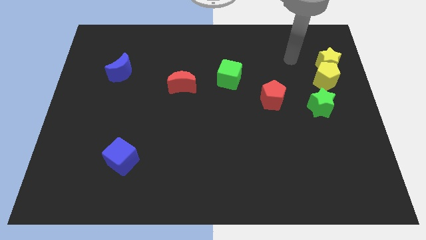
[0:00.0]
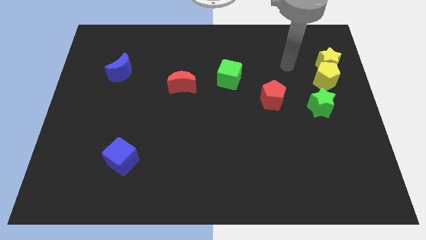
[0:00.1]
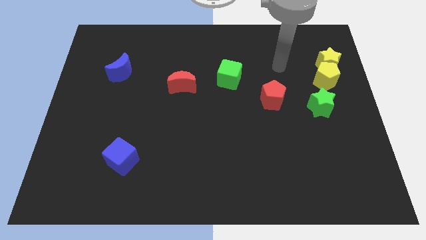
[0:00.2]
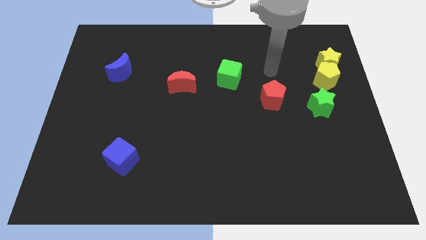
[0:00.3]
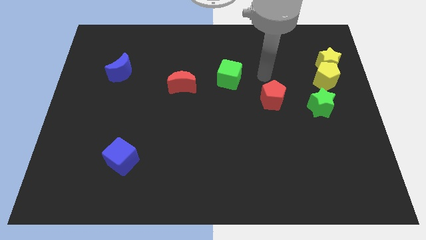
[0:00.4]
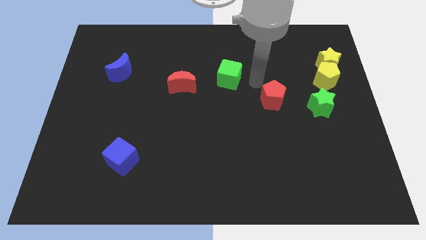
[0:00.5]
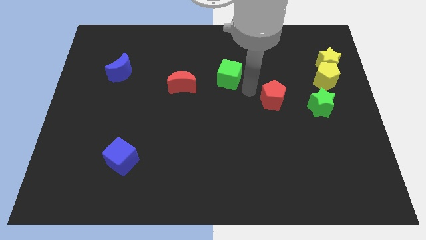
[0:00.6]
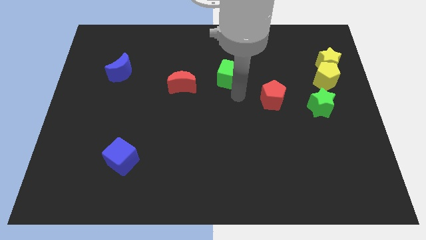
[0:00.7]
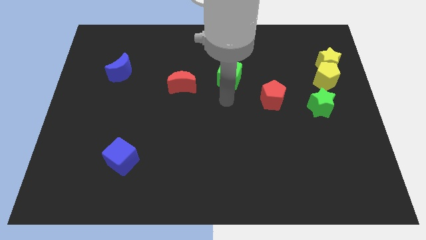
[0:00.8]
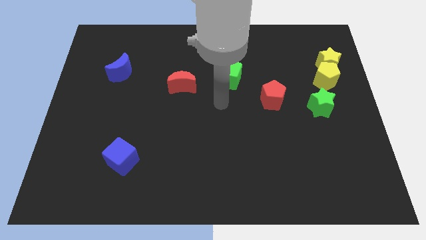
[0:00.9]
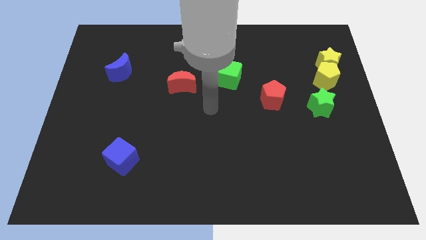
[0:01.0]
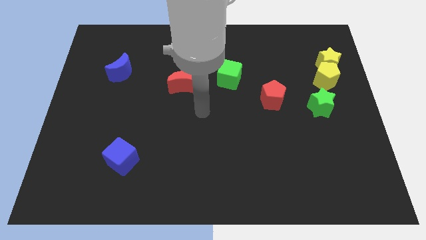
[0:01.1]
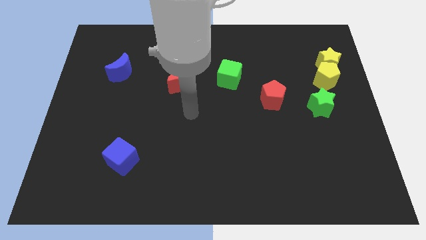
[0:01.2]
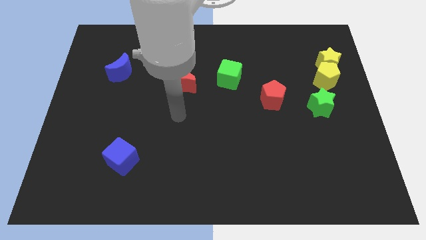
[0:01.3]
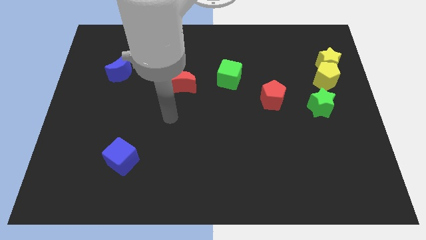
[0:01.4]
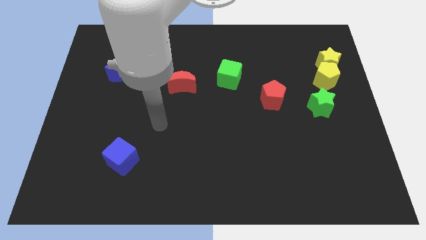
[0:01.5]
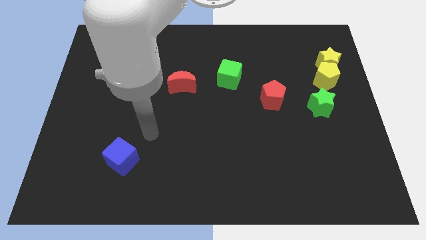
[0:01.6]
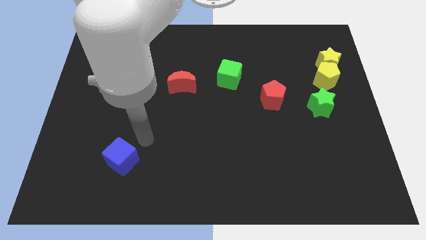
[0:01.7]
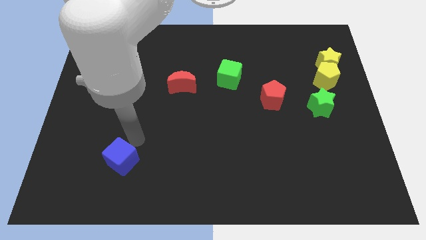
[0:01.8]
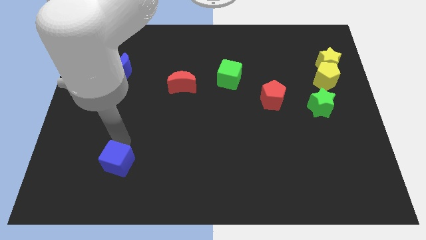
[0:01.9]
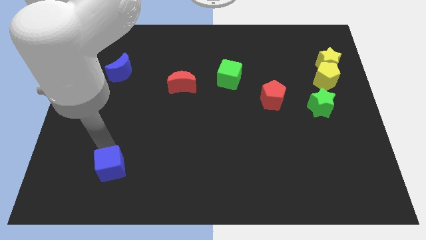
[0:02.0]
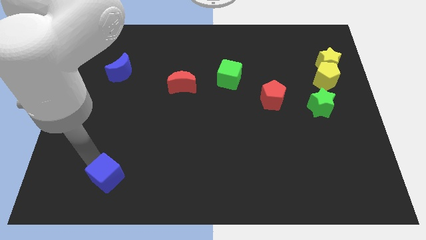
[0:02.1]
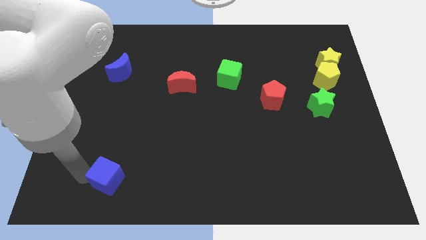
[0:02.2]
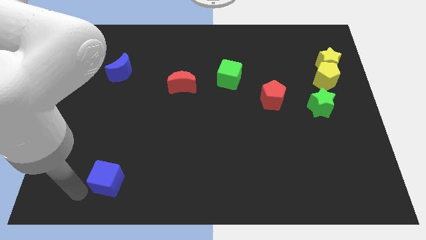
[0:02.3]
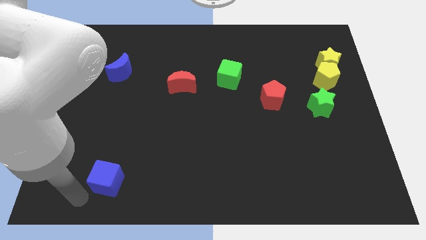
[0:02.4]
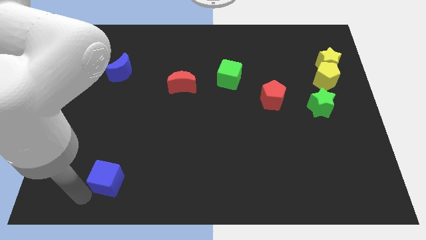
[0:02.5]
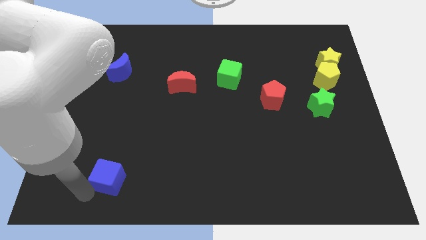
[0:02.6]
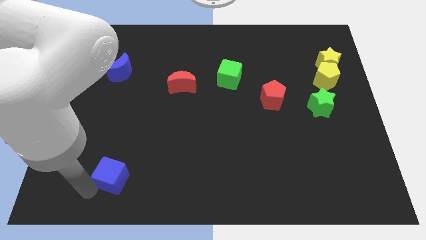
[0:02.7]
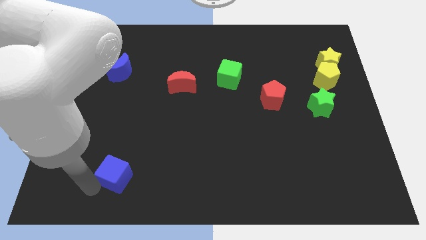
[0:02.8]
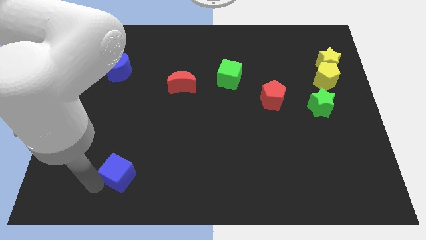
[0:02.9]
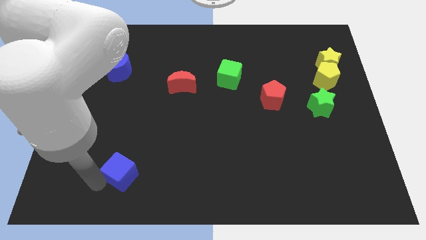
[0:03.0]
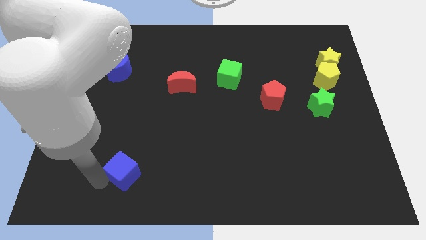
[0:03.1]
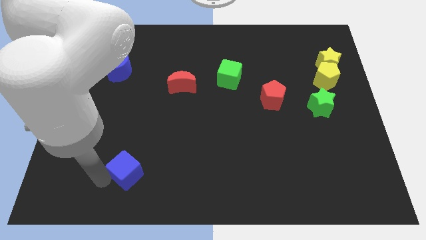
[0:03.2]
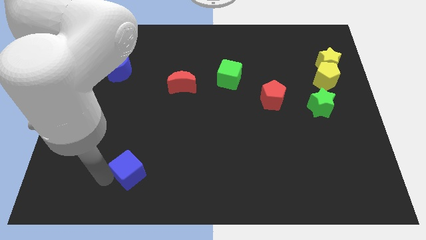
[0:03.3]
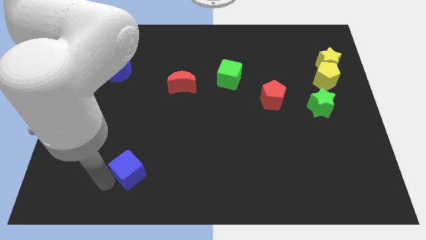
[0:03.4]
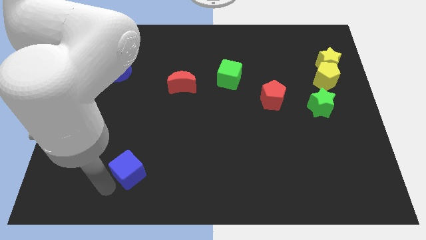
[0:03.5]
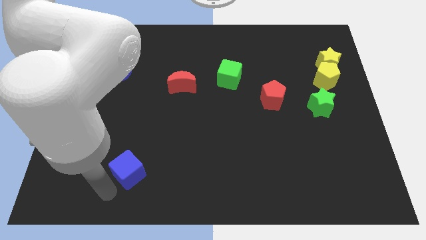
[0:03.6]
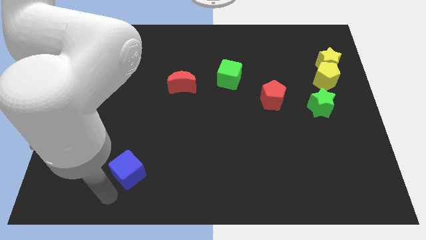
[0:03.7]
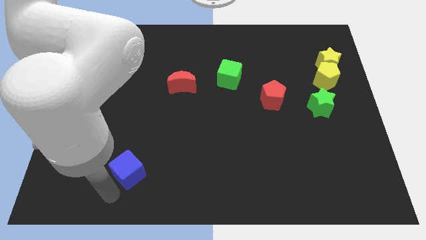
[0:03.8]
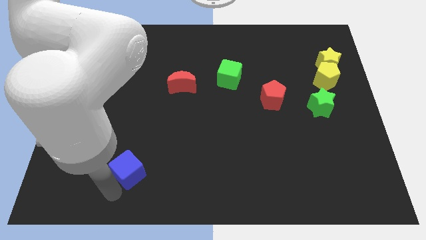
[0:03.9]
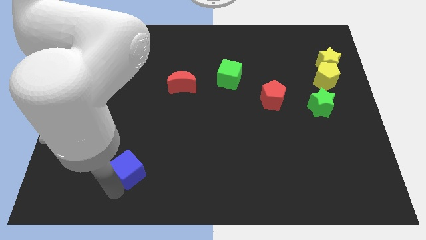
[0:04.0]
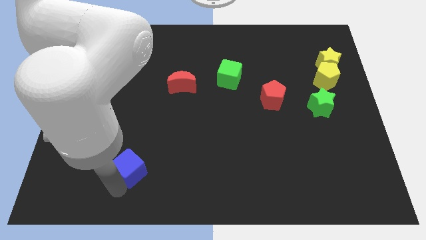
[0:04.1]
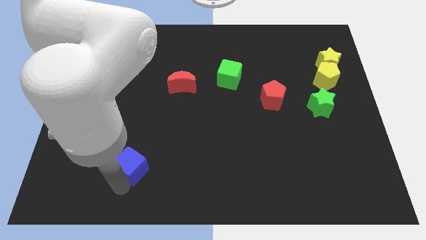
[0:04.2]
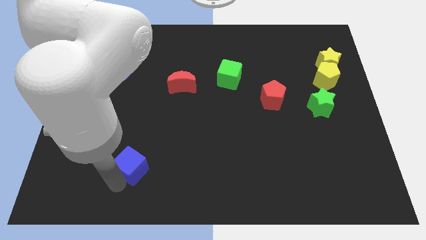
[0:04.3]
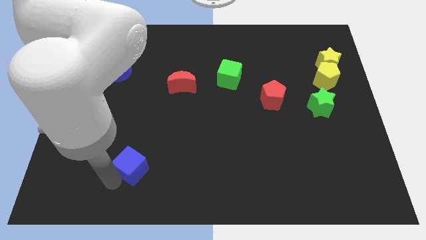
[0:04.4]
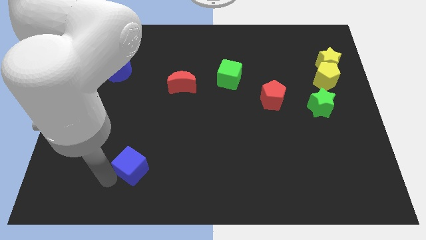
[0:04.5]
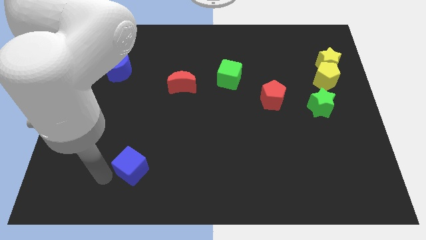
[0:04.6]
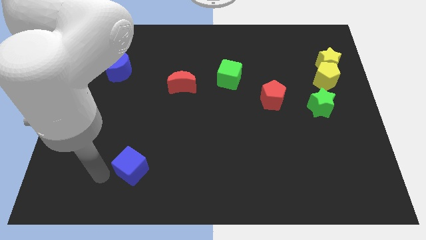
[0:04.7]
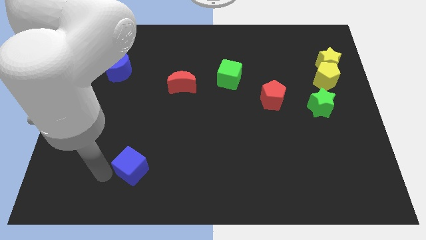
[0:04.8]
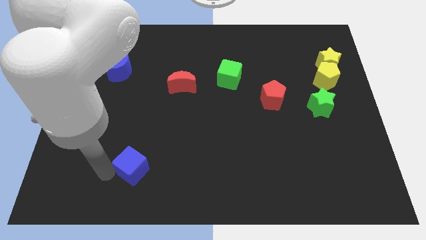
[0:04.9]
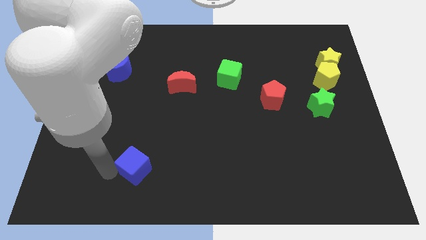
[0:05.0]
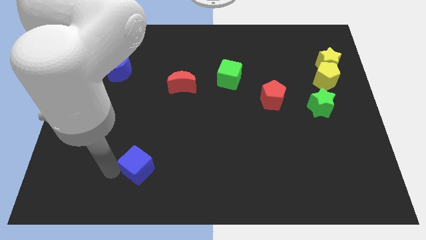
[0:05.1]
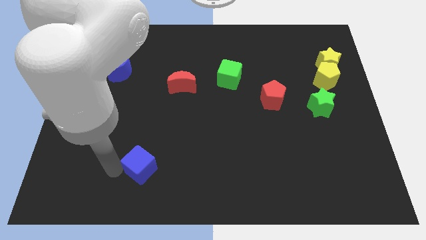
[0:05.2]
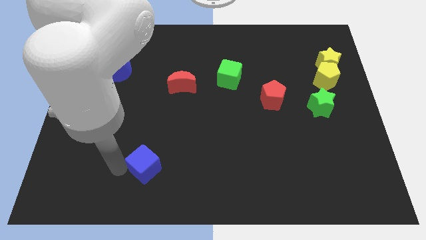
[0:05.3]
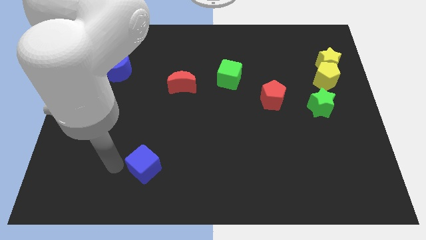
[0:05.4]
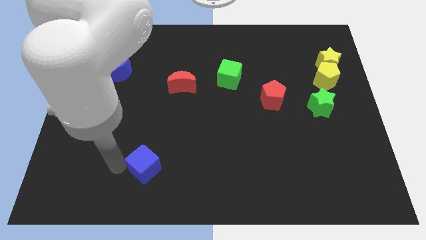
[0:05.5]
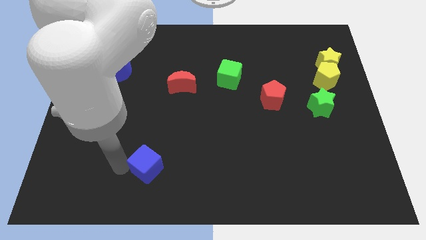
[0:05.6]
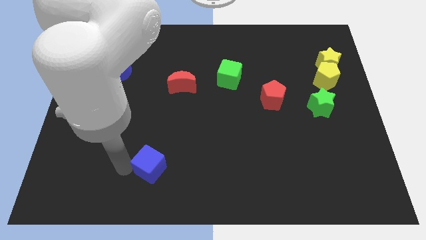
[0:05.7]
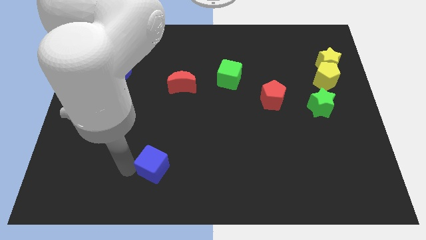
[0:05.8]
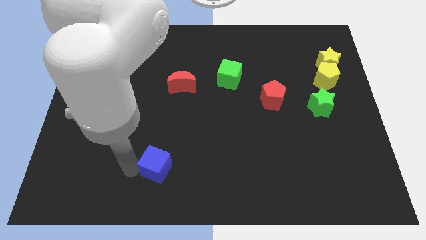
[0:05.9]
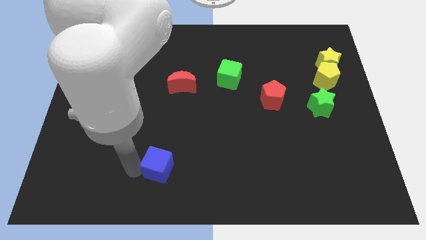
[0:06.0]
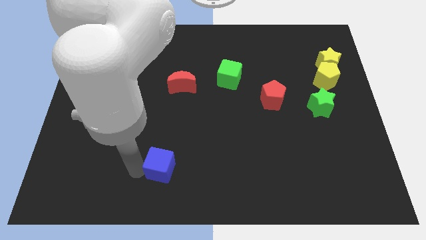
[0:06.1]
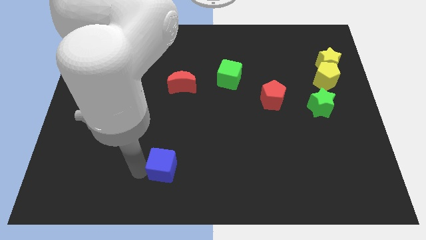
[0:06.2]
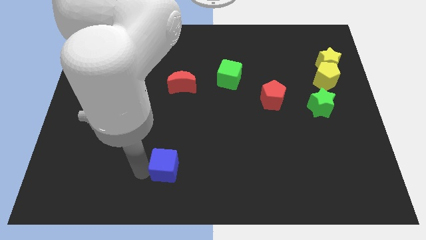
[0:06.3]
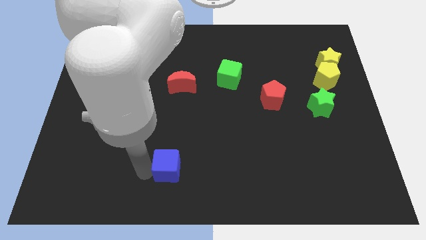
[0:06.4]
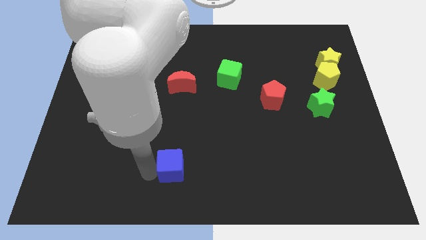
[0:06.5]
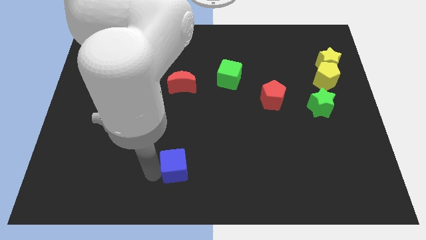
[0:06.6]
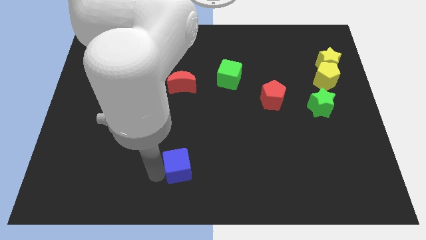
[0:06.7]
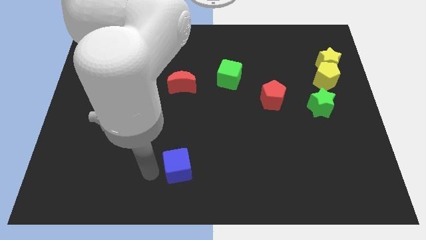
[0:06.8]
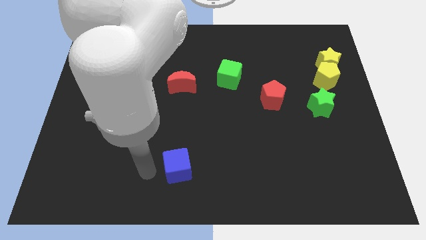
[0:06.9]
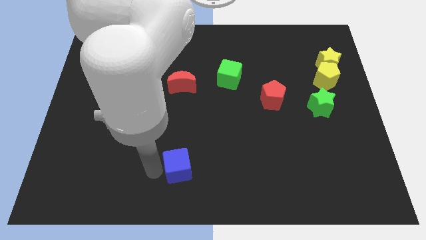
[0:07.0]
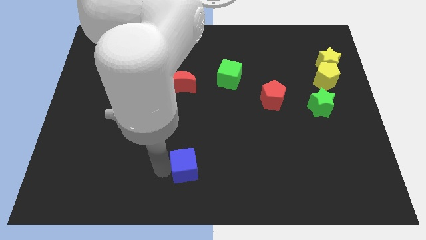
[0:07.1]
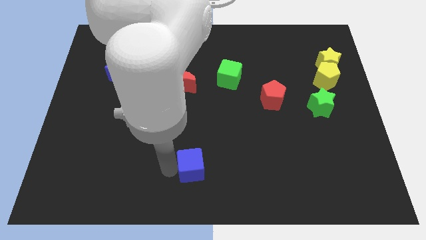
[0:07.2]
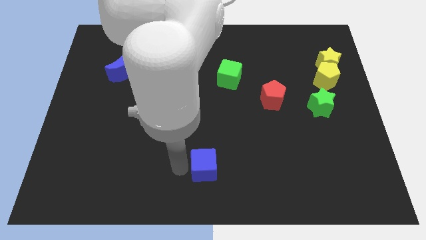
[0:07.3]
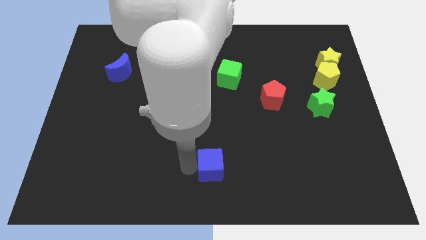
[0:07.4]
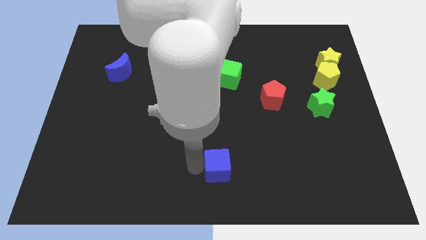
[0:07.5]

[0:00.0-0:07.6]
move the blue cube right

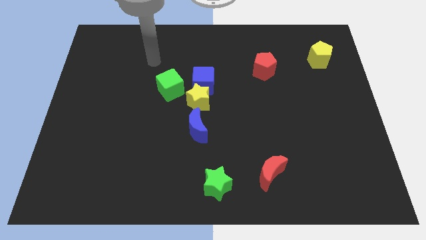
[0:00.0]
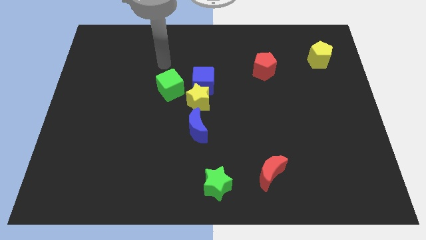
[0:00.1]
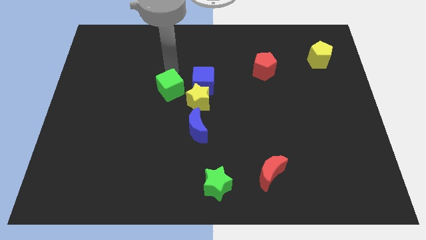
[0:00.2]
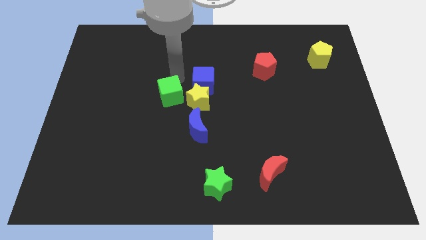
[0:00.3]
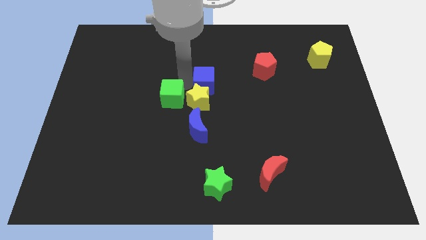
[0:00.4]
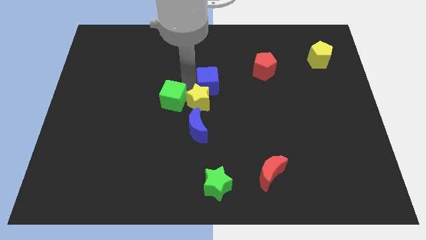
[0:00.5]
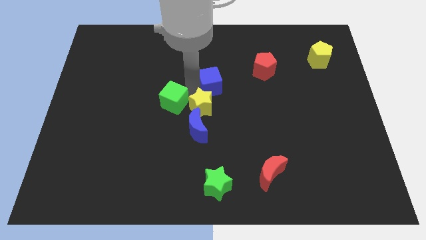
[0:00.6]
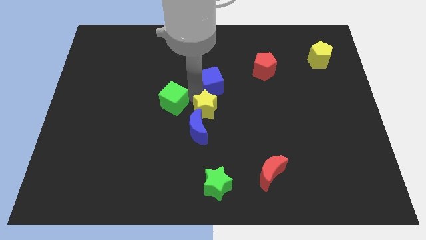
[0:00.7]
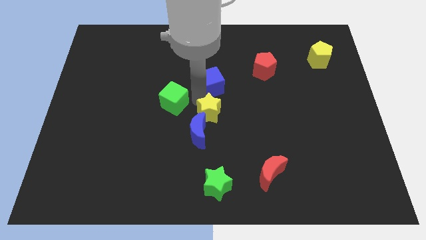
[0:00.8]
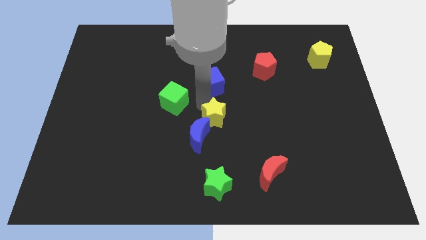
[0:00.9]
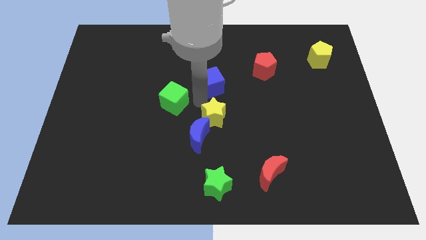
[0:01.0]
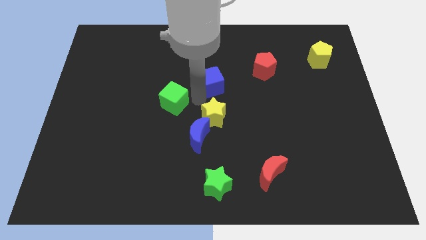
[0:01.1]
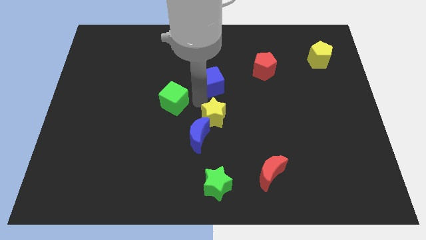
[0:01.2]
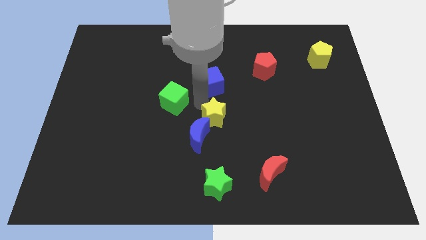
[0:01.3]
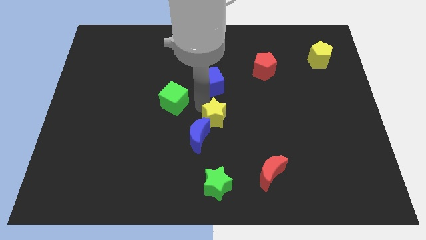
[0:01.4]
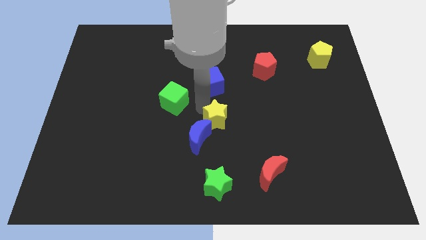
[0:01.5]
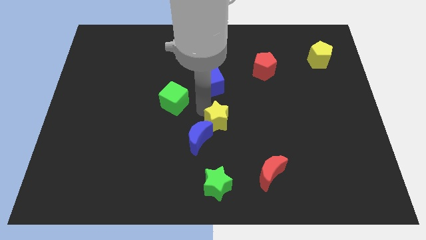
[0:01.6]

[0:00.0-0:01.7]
slightly slide the yellow star down and to the right diagonally
